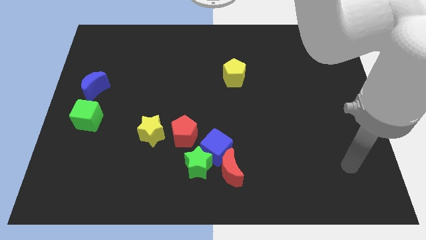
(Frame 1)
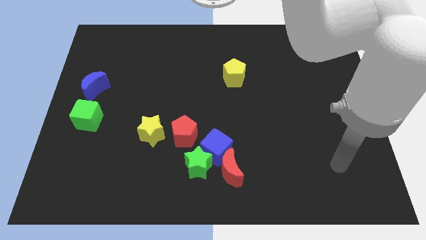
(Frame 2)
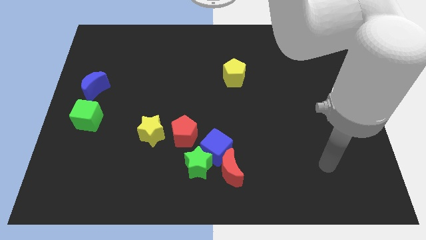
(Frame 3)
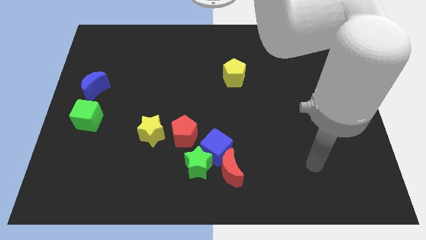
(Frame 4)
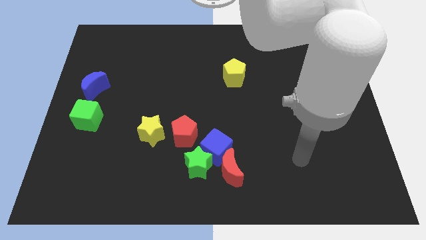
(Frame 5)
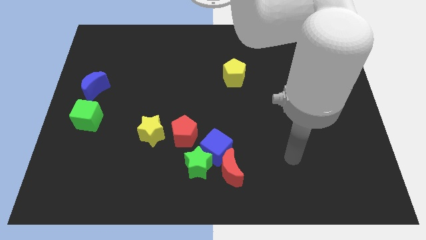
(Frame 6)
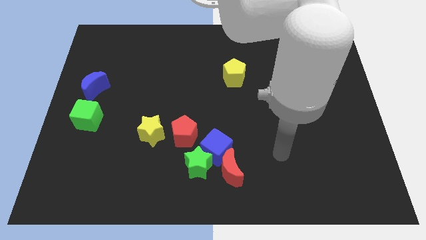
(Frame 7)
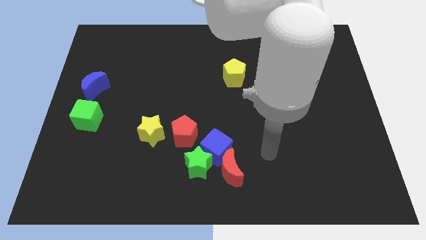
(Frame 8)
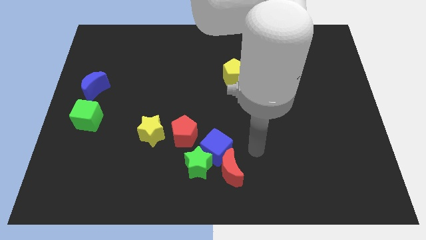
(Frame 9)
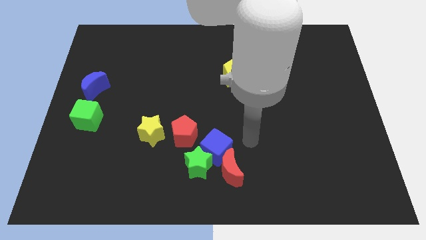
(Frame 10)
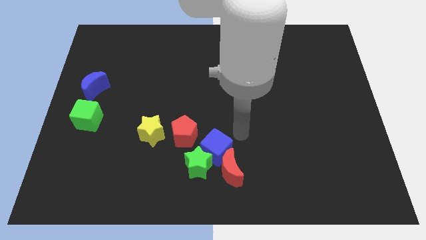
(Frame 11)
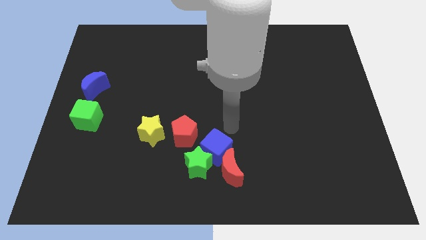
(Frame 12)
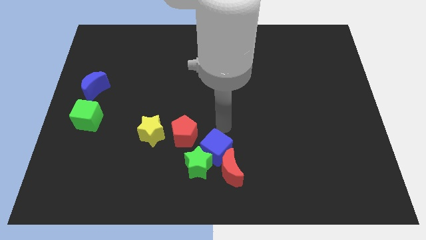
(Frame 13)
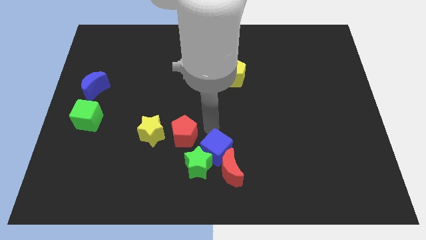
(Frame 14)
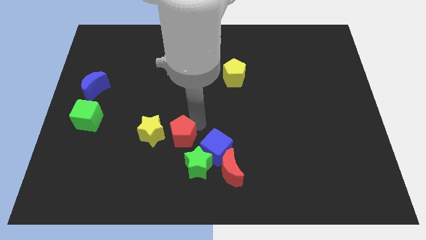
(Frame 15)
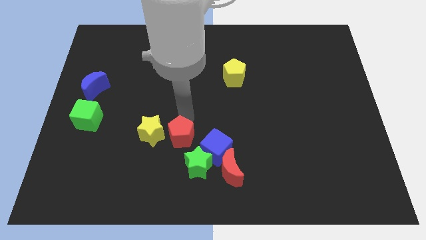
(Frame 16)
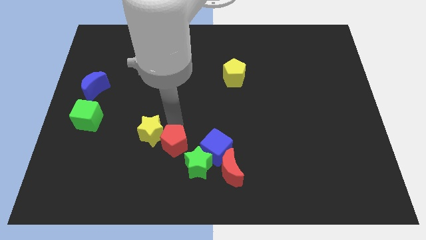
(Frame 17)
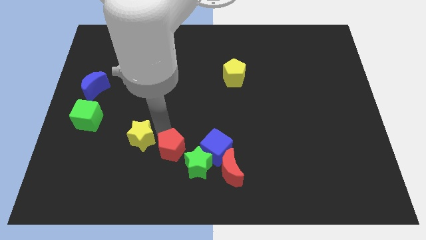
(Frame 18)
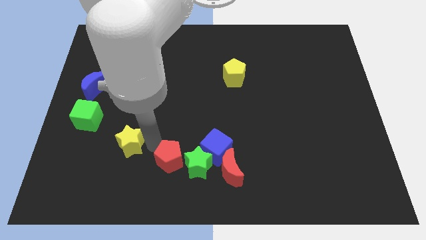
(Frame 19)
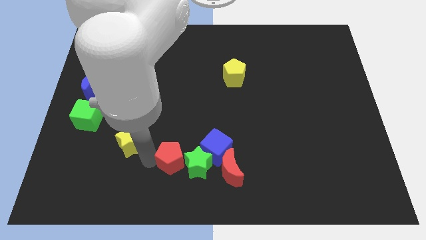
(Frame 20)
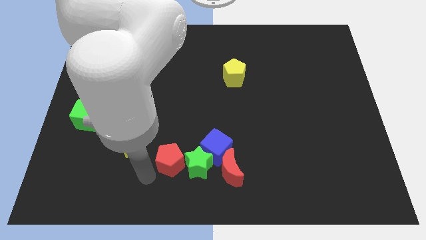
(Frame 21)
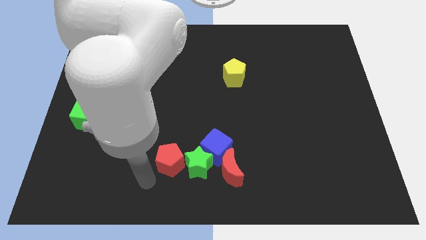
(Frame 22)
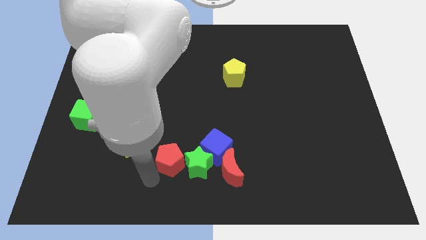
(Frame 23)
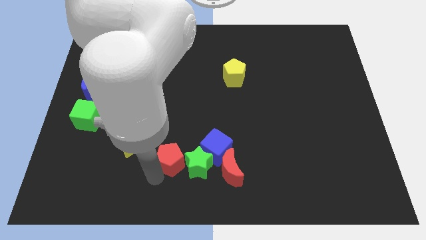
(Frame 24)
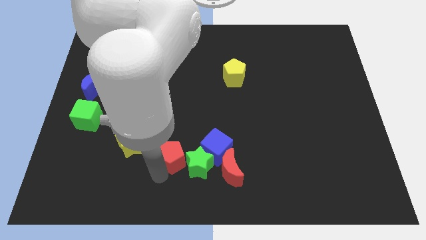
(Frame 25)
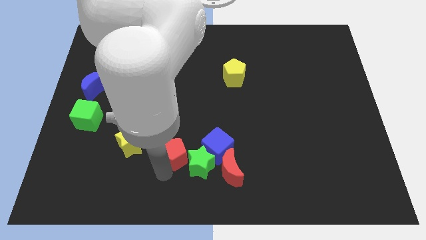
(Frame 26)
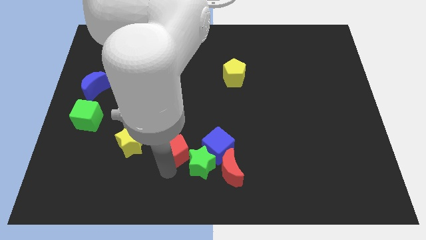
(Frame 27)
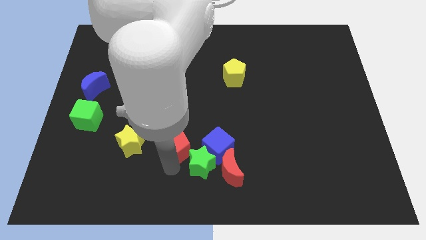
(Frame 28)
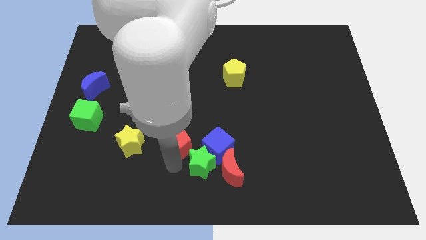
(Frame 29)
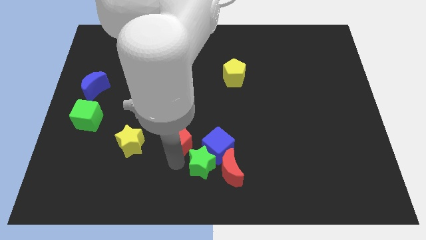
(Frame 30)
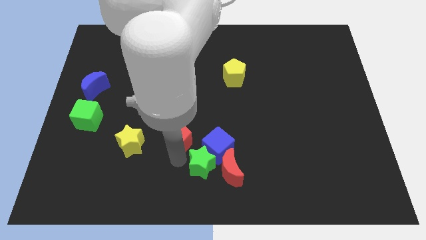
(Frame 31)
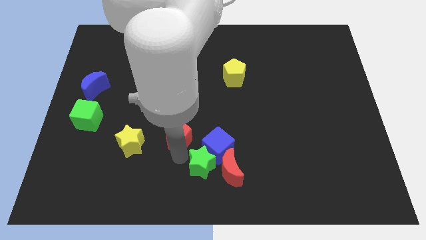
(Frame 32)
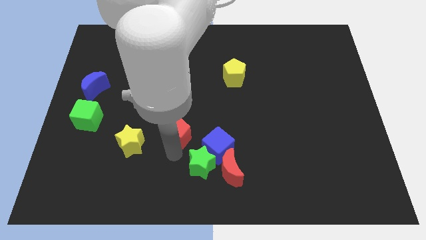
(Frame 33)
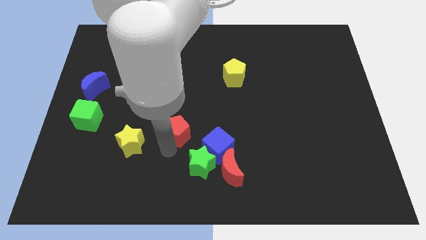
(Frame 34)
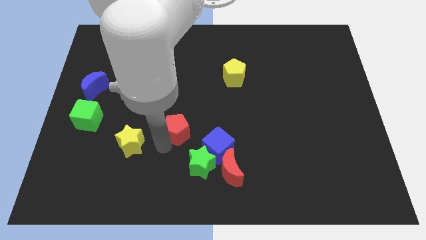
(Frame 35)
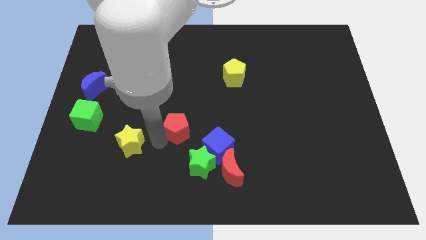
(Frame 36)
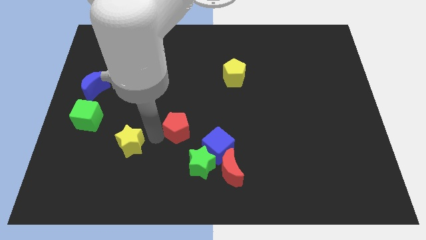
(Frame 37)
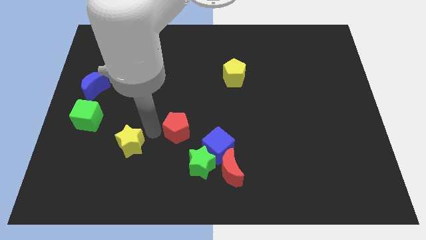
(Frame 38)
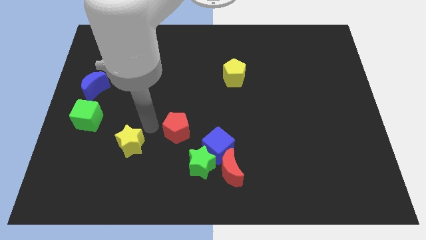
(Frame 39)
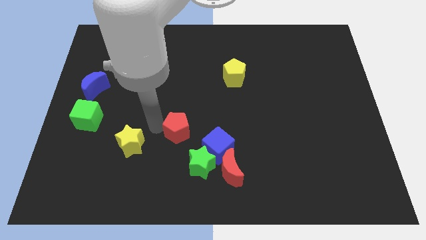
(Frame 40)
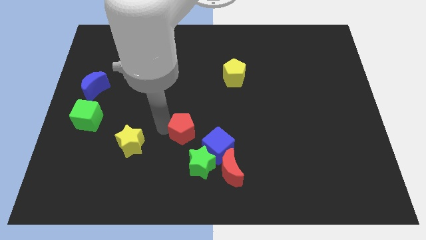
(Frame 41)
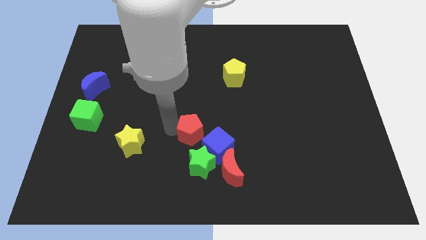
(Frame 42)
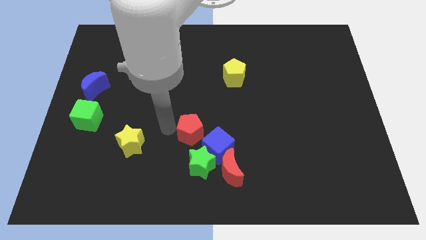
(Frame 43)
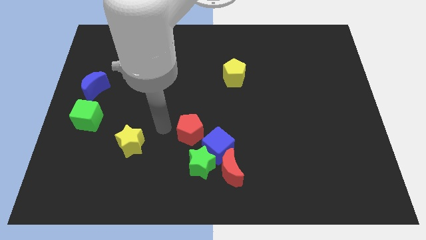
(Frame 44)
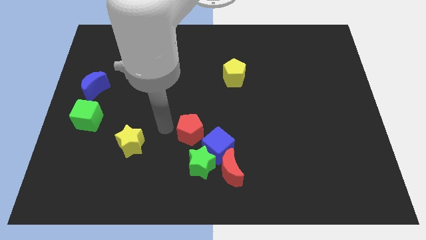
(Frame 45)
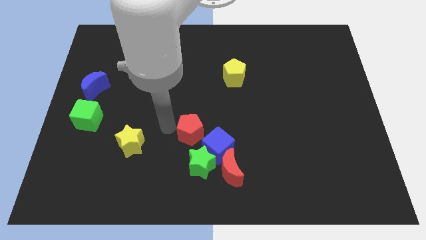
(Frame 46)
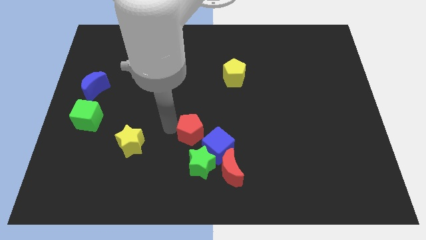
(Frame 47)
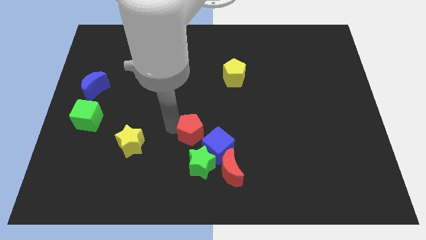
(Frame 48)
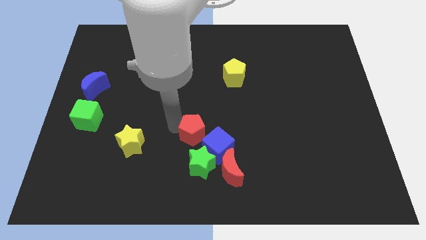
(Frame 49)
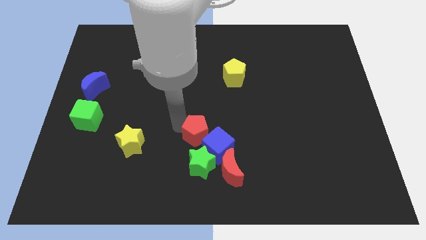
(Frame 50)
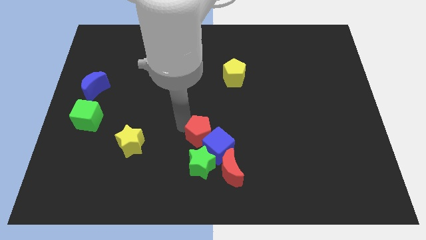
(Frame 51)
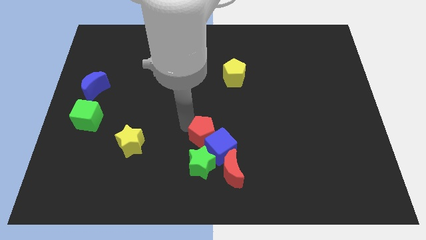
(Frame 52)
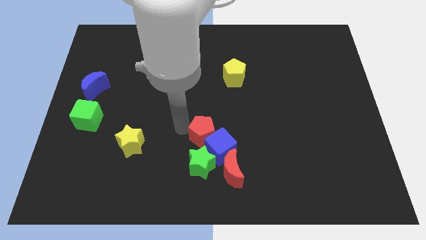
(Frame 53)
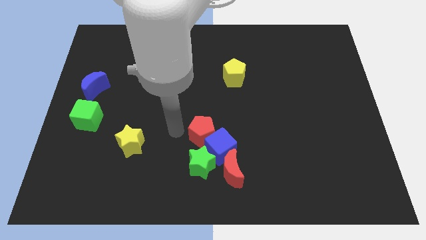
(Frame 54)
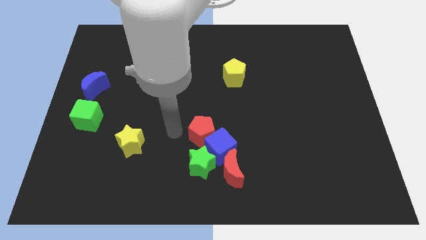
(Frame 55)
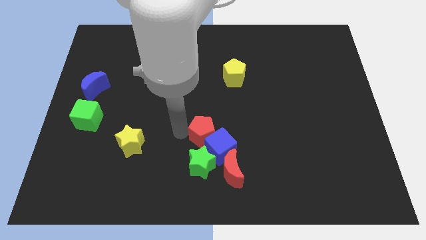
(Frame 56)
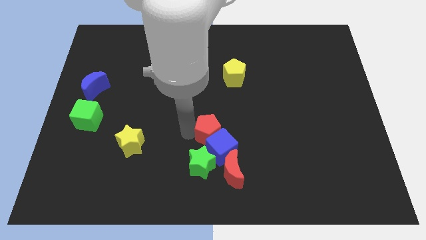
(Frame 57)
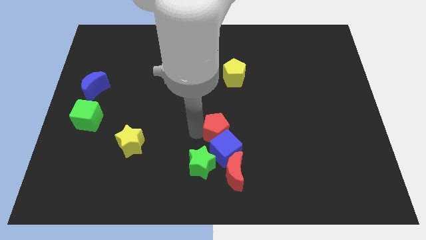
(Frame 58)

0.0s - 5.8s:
slightly push the red pentagon right

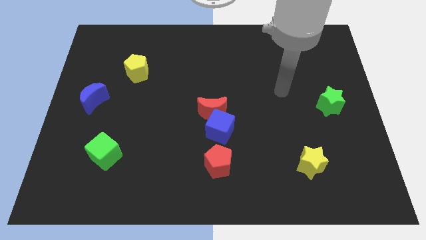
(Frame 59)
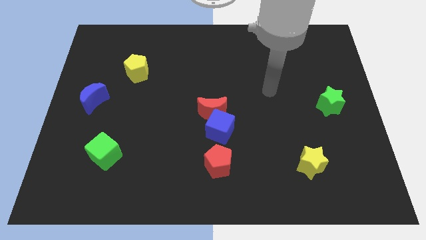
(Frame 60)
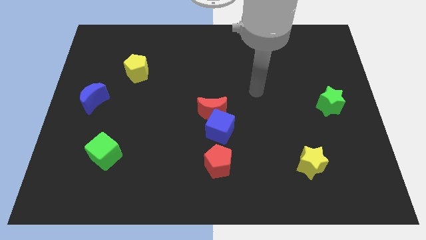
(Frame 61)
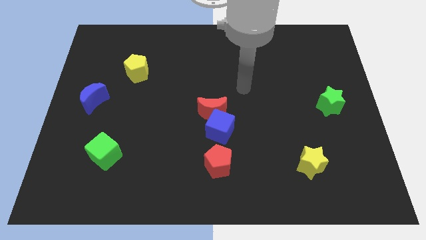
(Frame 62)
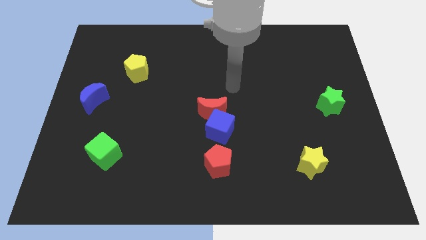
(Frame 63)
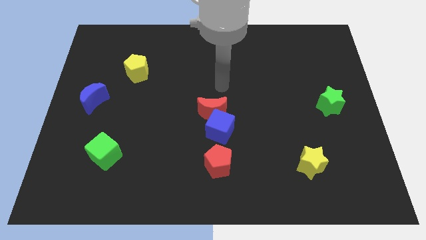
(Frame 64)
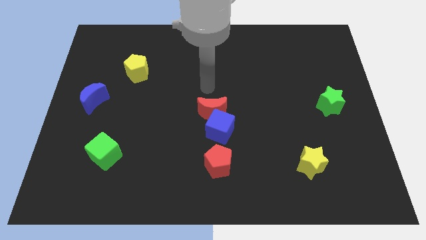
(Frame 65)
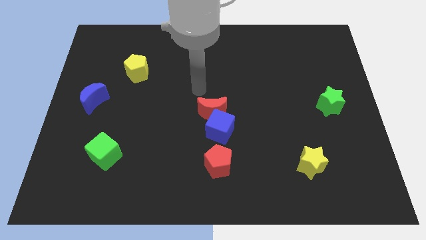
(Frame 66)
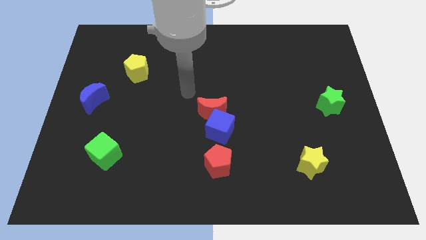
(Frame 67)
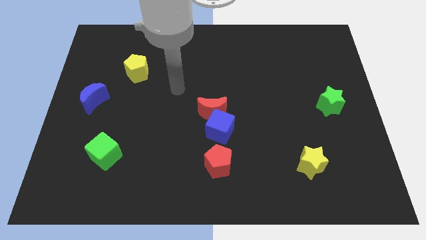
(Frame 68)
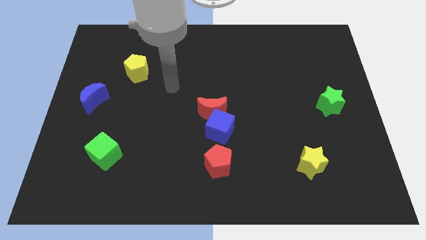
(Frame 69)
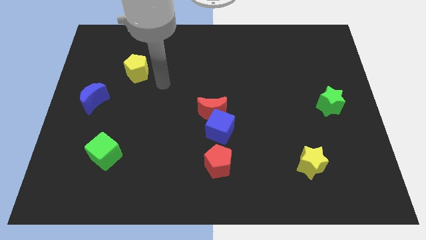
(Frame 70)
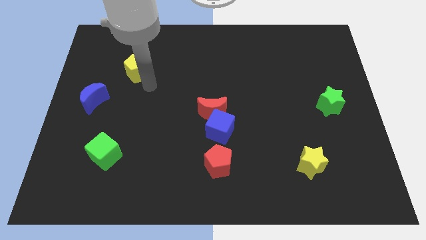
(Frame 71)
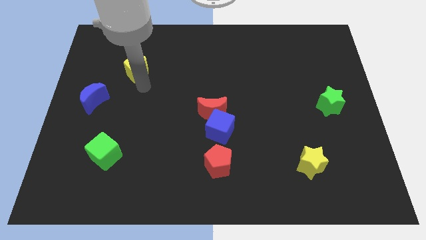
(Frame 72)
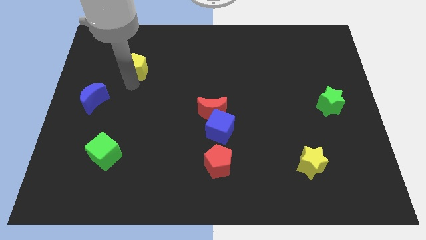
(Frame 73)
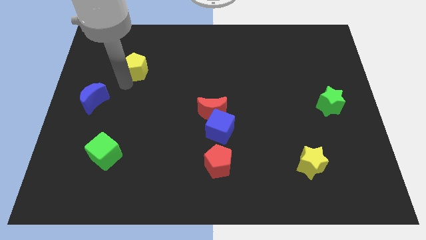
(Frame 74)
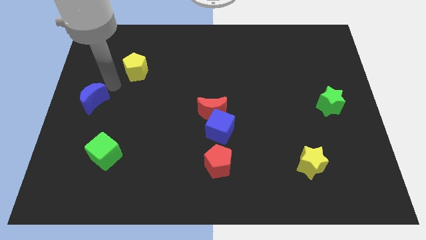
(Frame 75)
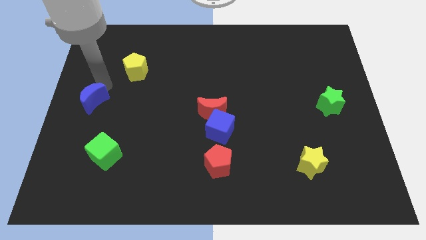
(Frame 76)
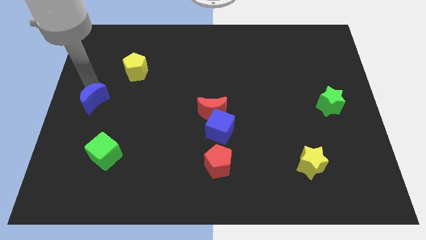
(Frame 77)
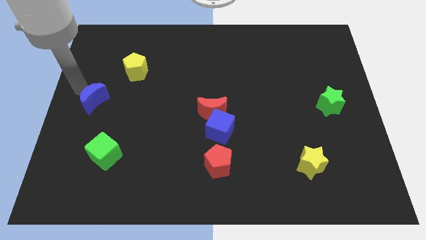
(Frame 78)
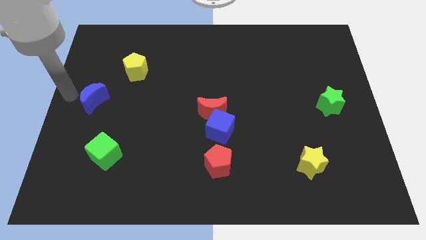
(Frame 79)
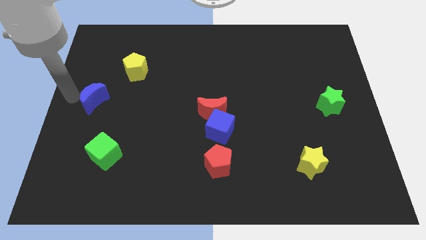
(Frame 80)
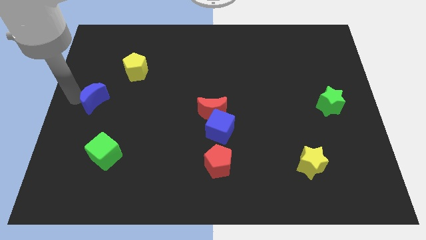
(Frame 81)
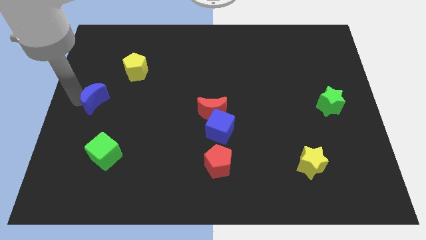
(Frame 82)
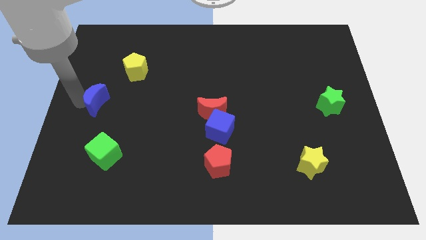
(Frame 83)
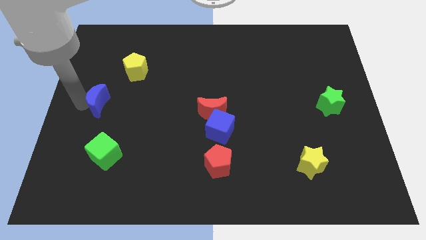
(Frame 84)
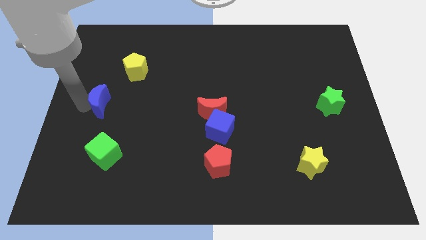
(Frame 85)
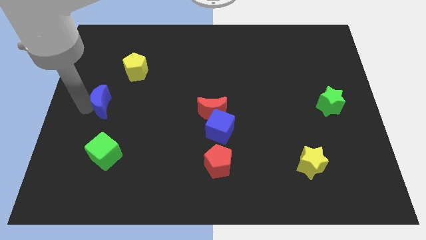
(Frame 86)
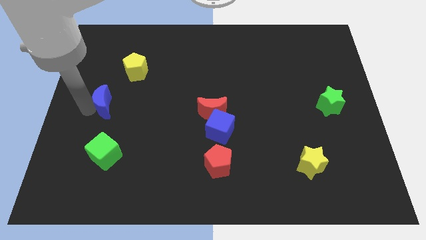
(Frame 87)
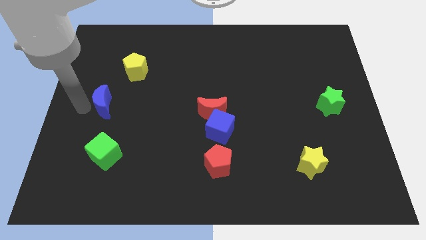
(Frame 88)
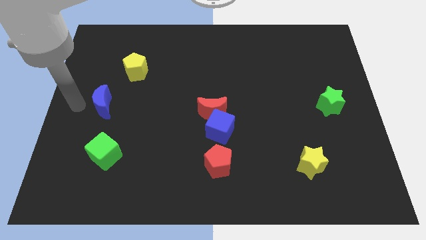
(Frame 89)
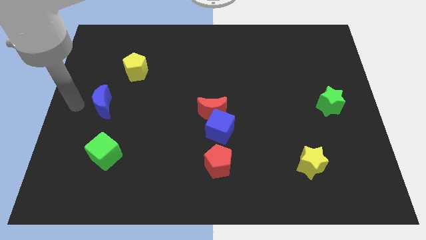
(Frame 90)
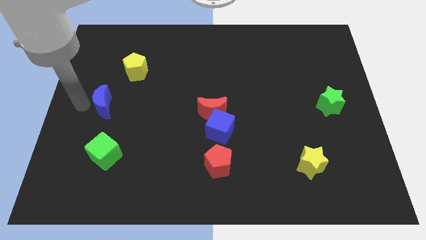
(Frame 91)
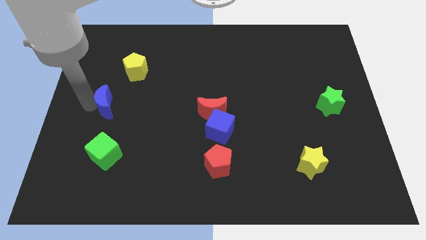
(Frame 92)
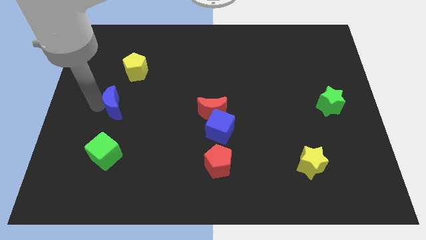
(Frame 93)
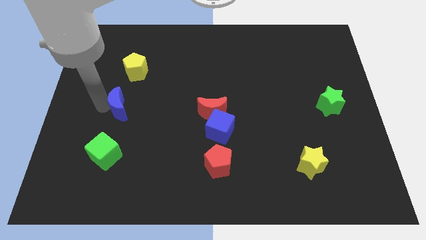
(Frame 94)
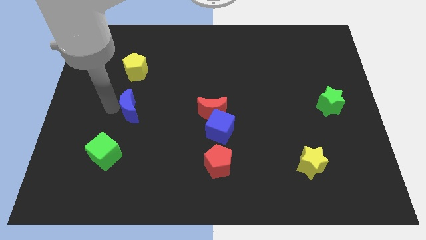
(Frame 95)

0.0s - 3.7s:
push the blue moon to the right somewhat
